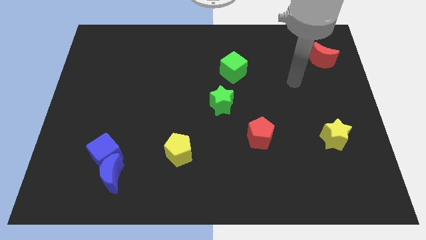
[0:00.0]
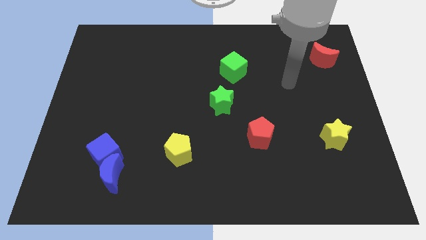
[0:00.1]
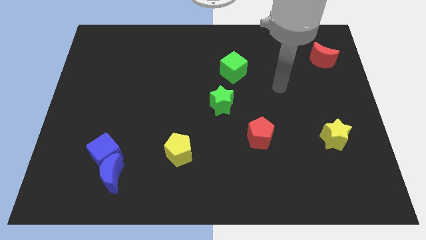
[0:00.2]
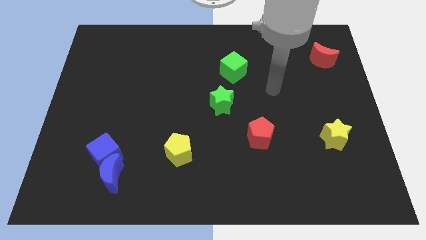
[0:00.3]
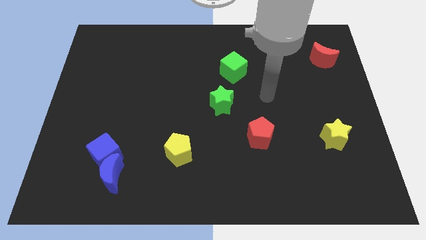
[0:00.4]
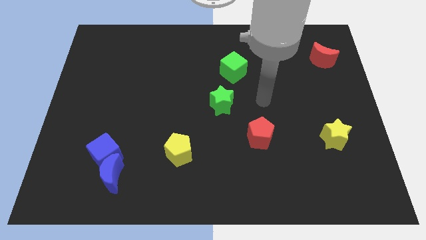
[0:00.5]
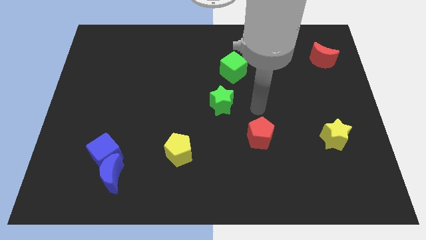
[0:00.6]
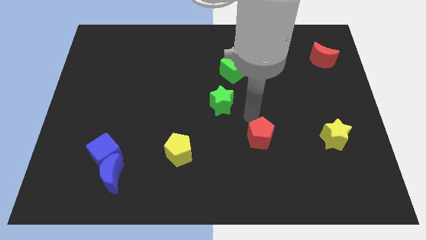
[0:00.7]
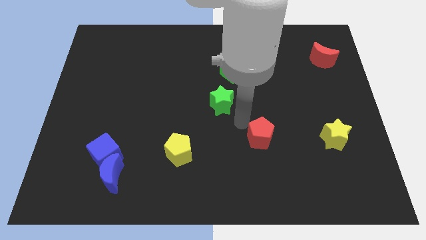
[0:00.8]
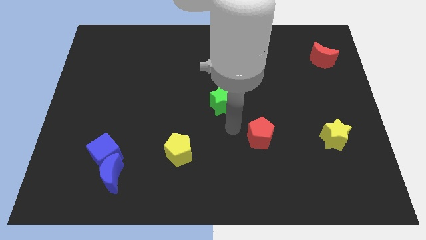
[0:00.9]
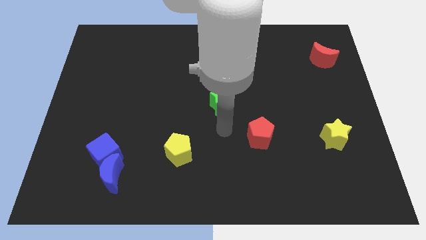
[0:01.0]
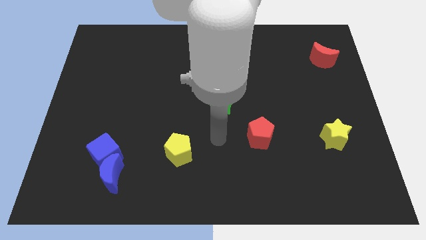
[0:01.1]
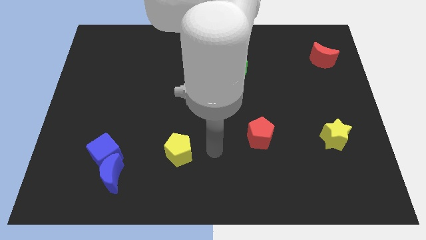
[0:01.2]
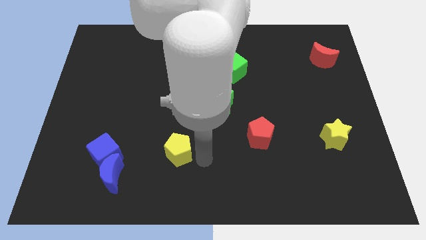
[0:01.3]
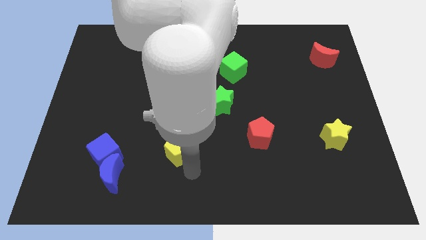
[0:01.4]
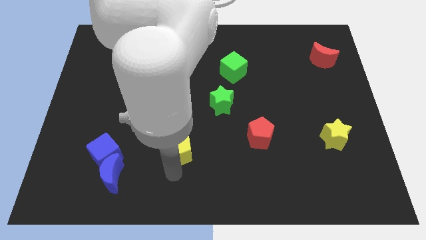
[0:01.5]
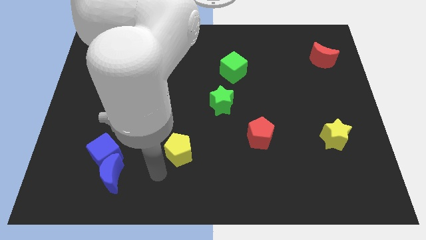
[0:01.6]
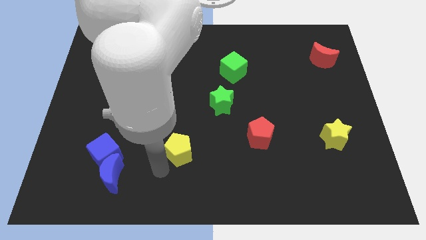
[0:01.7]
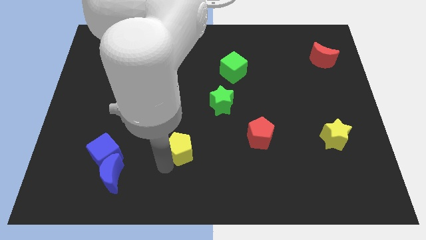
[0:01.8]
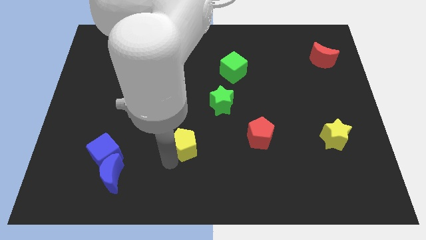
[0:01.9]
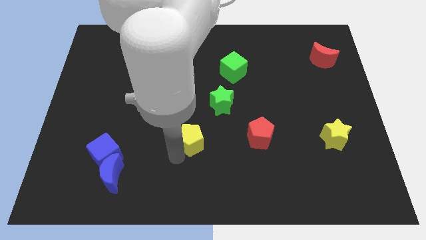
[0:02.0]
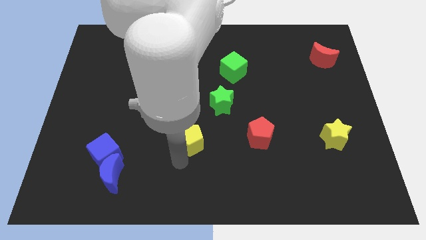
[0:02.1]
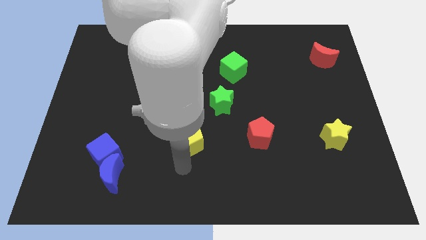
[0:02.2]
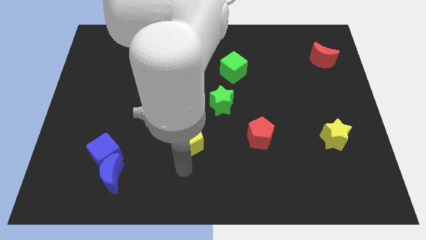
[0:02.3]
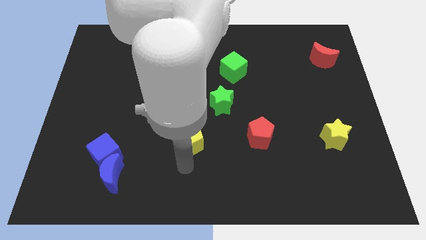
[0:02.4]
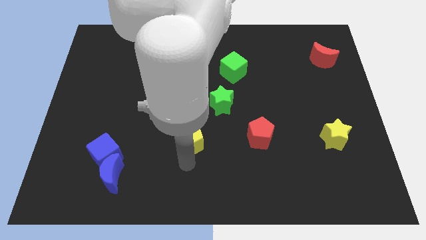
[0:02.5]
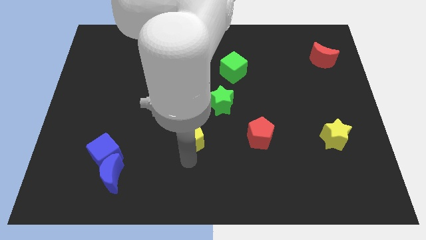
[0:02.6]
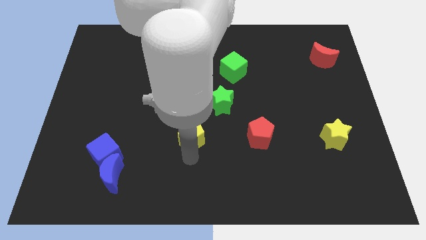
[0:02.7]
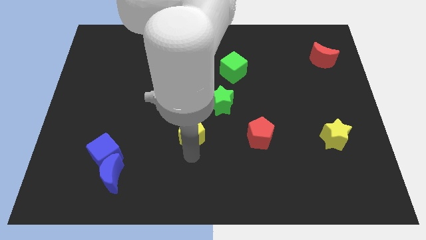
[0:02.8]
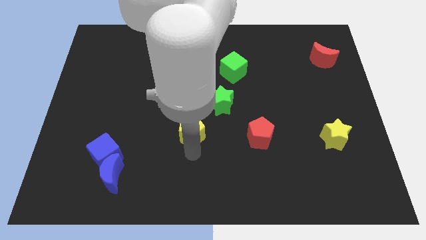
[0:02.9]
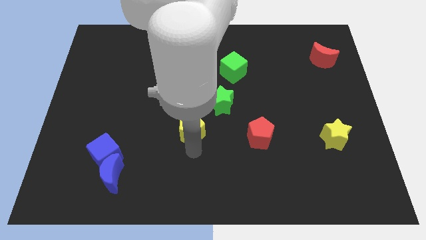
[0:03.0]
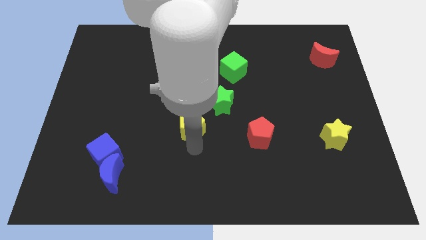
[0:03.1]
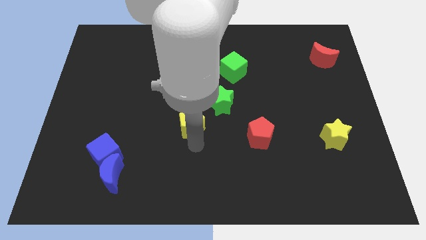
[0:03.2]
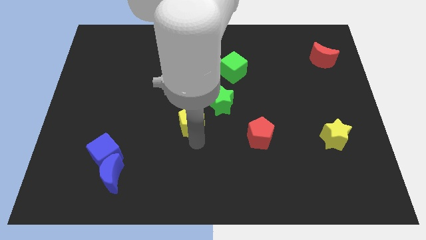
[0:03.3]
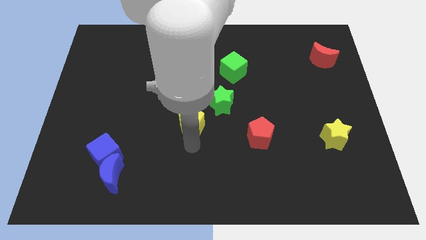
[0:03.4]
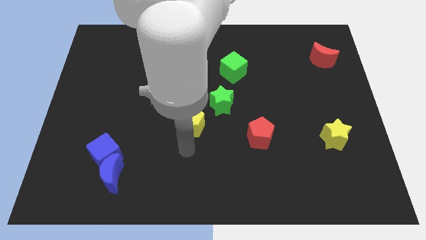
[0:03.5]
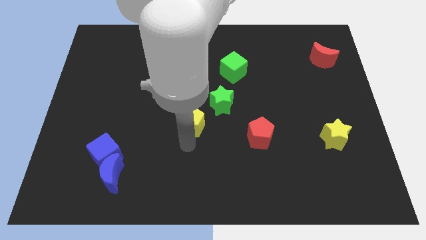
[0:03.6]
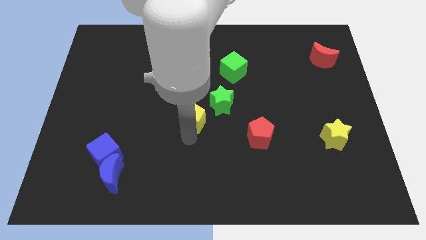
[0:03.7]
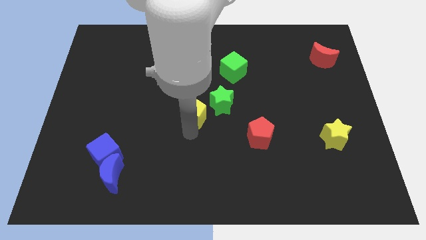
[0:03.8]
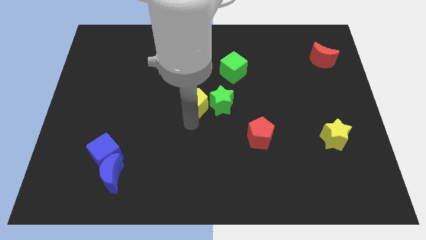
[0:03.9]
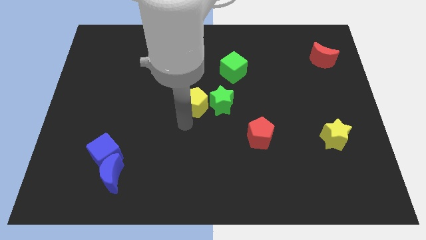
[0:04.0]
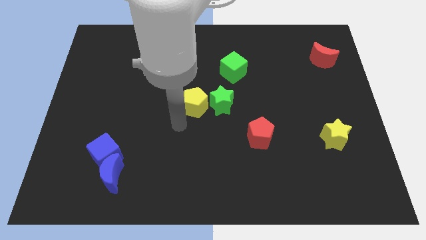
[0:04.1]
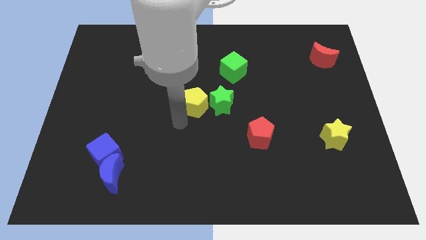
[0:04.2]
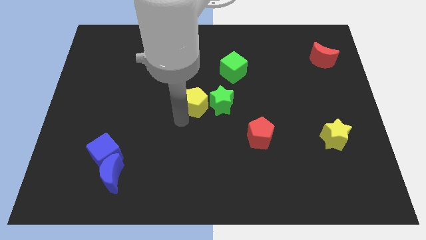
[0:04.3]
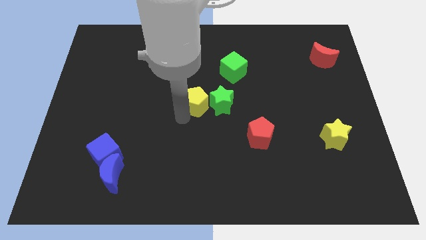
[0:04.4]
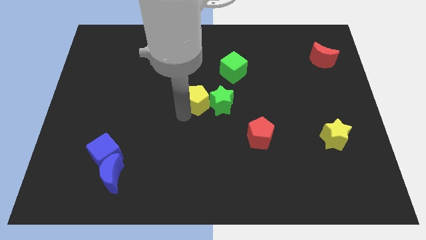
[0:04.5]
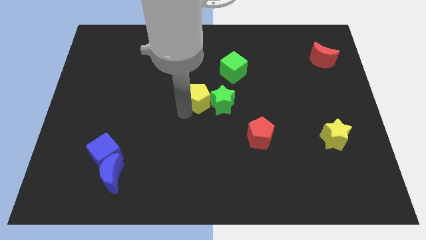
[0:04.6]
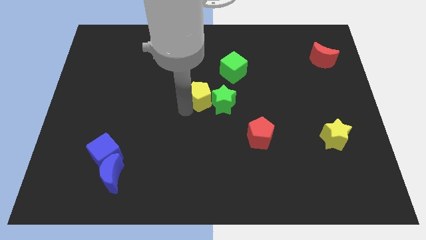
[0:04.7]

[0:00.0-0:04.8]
slide the yellow pentagon diagonally down and to the left of the green cube

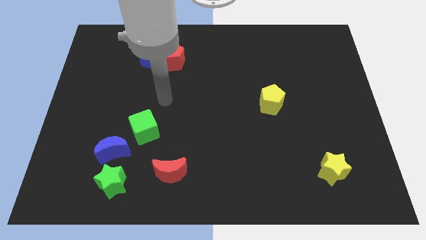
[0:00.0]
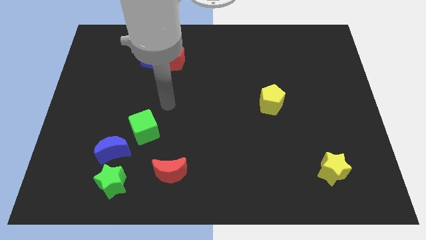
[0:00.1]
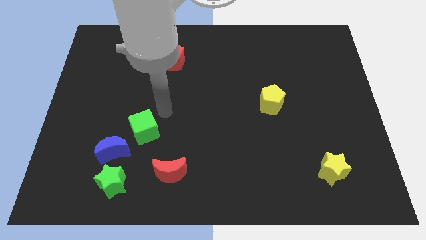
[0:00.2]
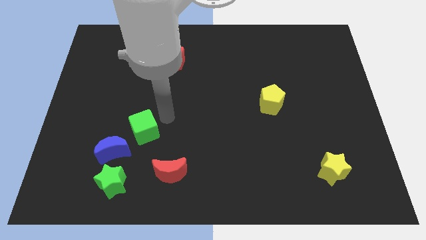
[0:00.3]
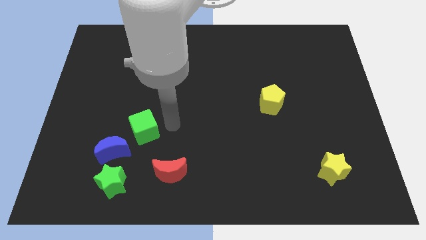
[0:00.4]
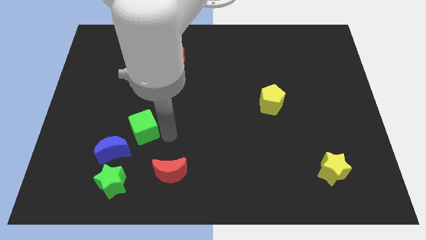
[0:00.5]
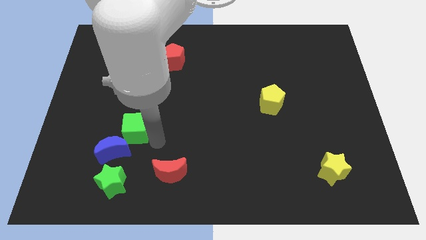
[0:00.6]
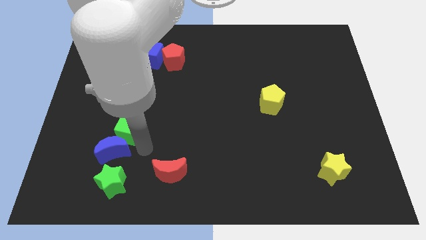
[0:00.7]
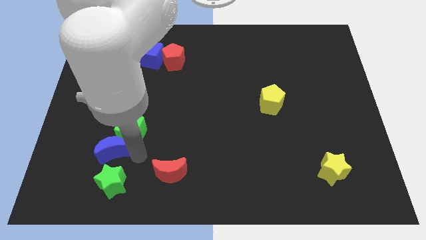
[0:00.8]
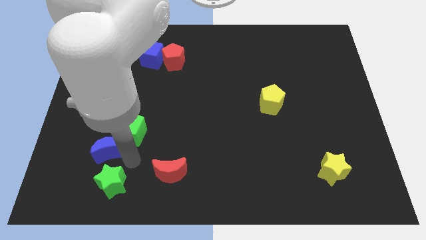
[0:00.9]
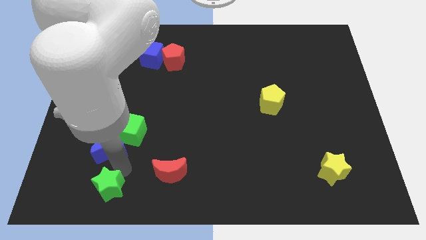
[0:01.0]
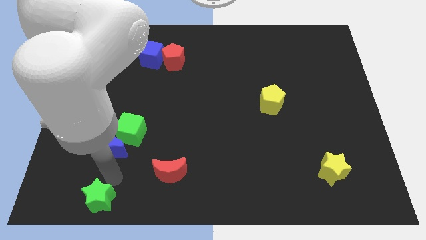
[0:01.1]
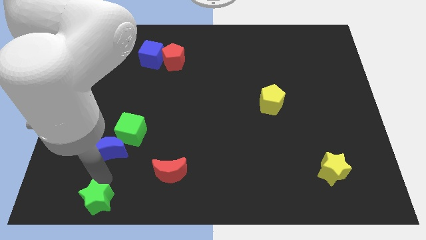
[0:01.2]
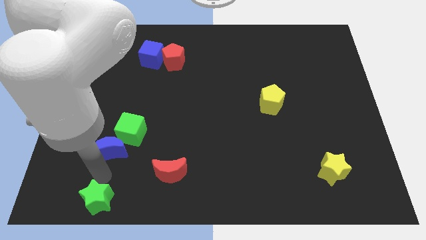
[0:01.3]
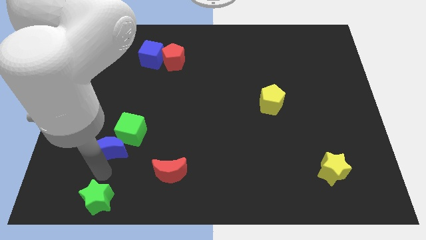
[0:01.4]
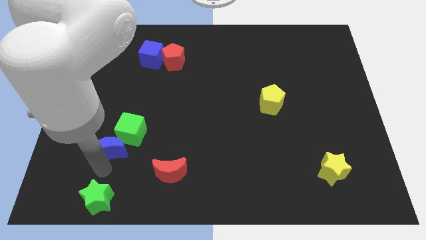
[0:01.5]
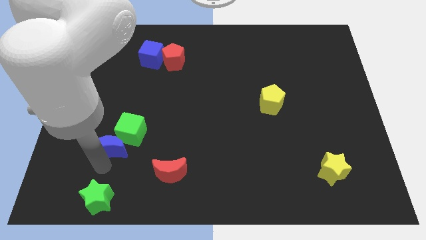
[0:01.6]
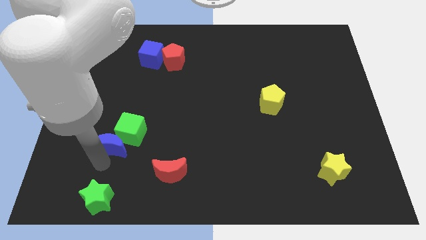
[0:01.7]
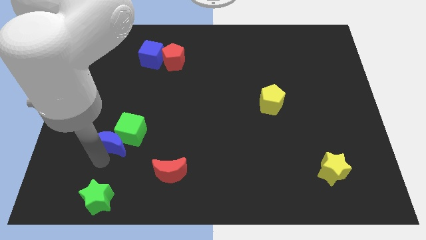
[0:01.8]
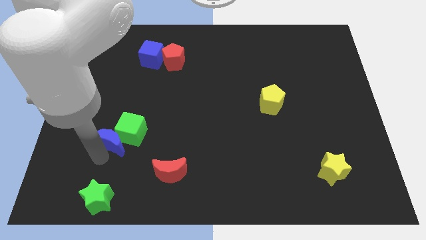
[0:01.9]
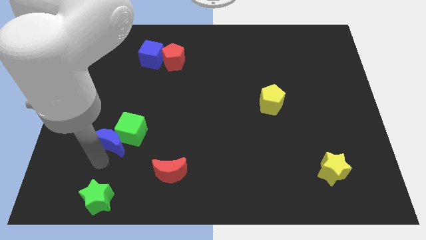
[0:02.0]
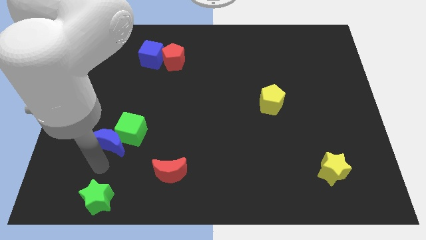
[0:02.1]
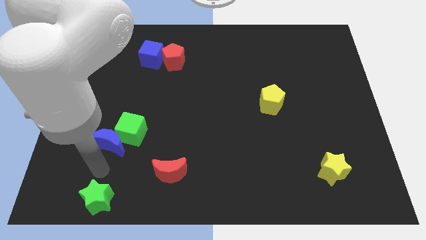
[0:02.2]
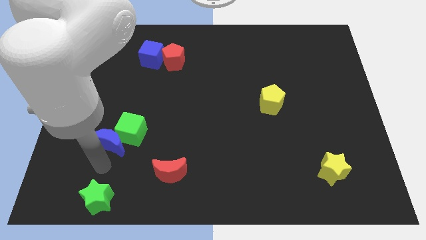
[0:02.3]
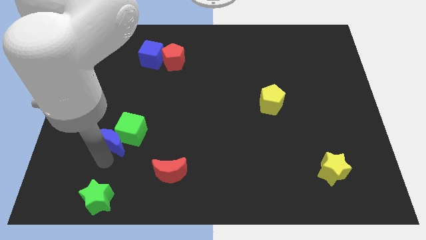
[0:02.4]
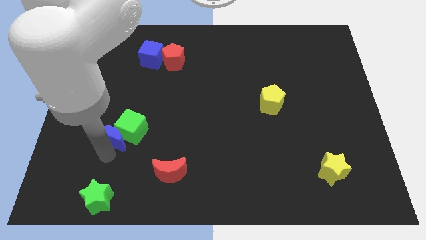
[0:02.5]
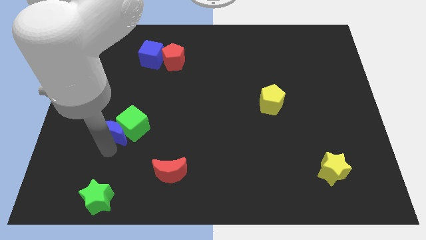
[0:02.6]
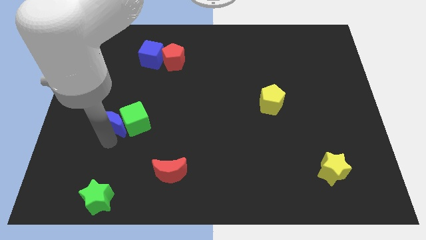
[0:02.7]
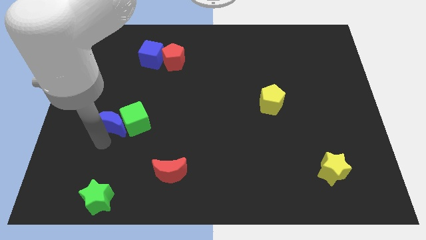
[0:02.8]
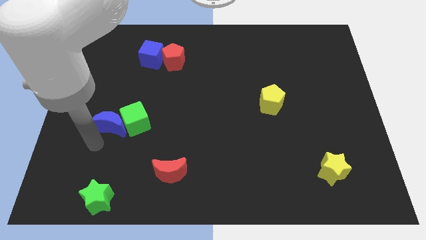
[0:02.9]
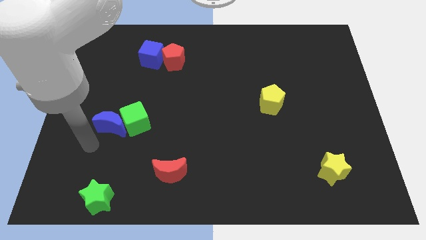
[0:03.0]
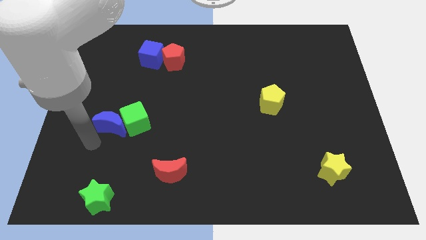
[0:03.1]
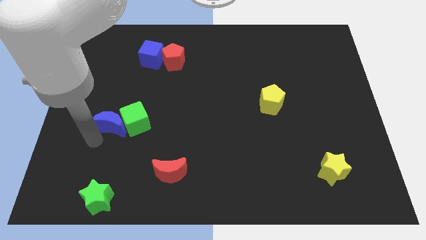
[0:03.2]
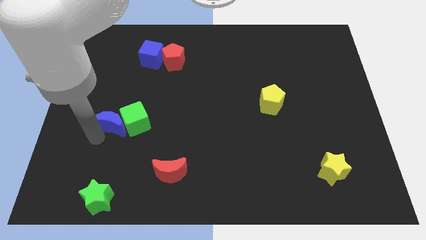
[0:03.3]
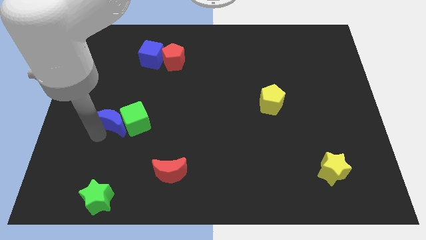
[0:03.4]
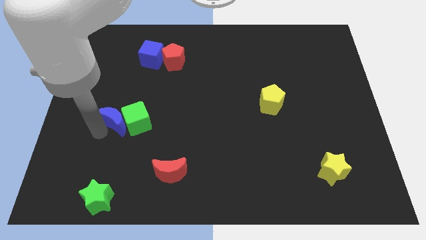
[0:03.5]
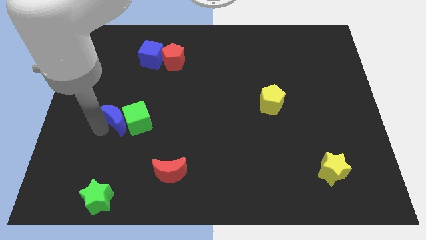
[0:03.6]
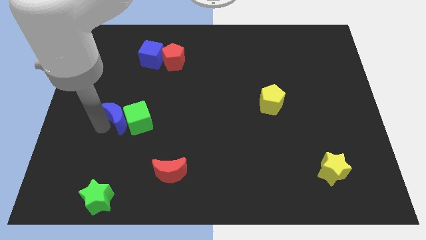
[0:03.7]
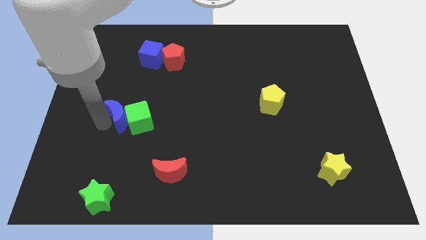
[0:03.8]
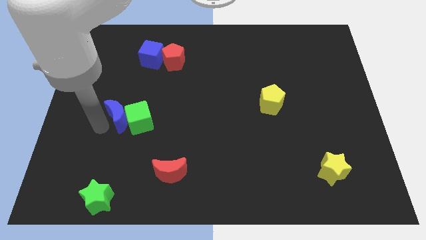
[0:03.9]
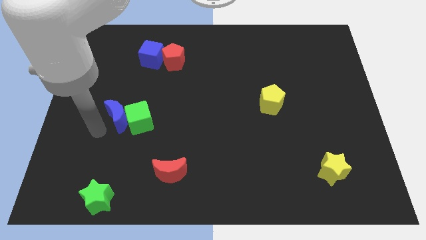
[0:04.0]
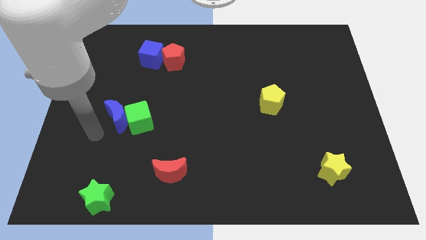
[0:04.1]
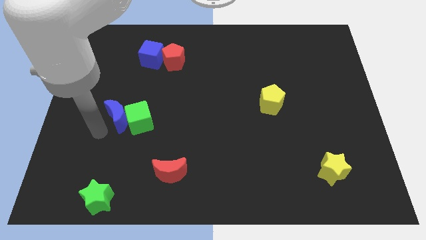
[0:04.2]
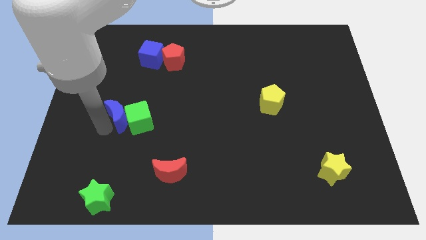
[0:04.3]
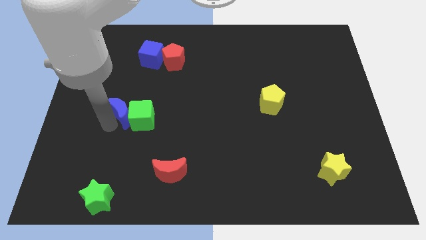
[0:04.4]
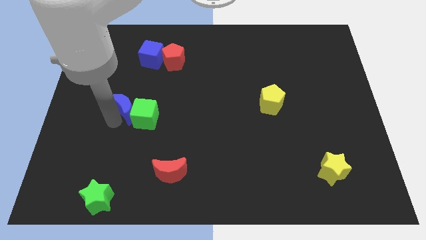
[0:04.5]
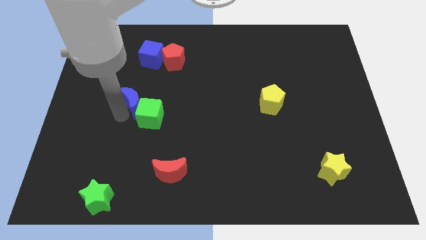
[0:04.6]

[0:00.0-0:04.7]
push the blue moon to the bottom of the blue cube
